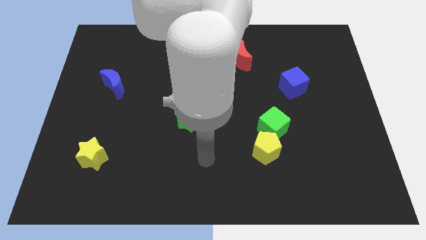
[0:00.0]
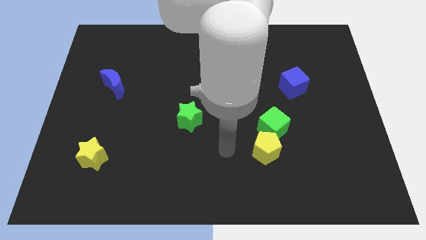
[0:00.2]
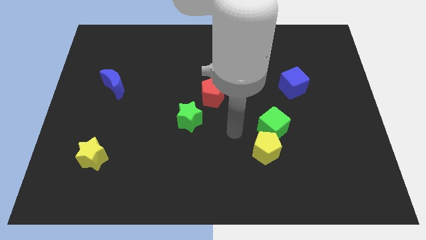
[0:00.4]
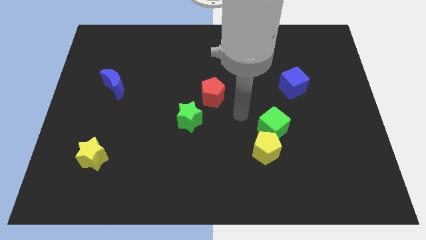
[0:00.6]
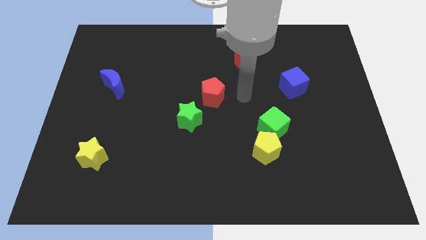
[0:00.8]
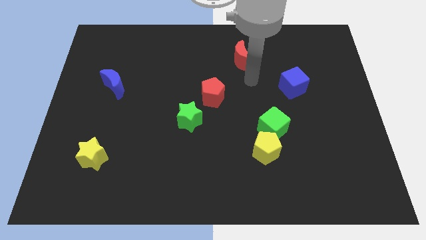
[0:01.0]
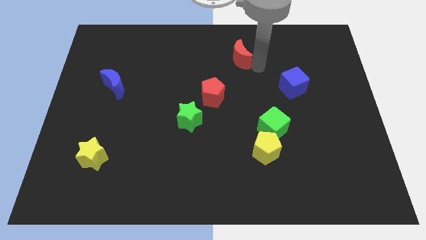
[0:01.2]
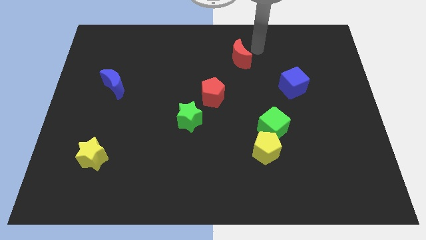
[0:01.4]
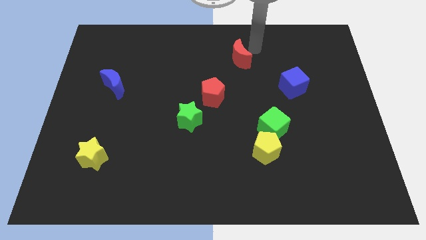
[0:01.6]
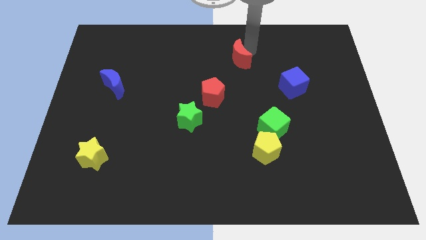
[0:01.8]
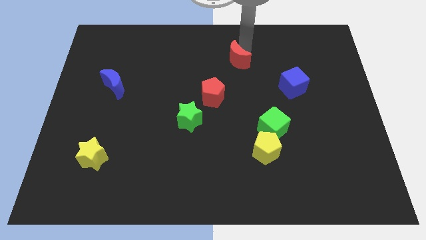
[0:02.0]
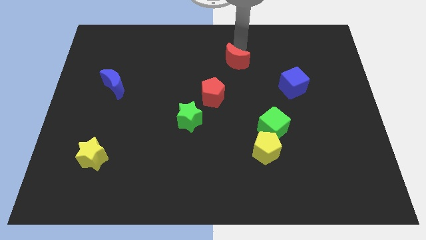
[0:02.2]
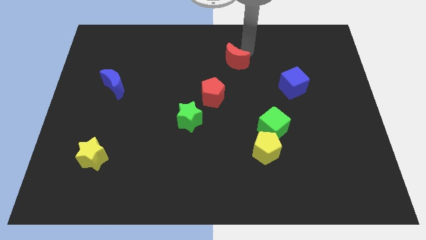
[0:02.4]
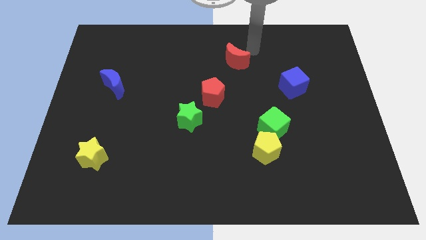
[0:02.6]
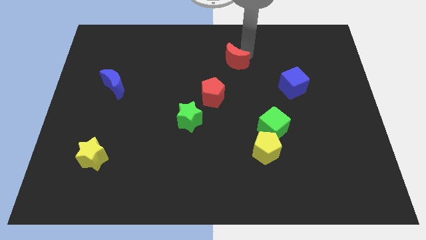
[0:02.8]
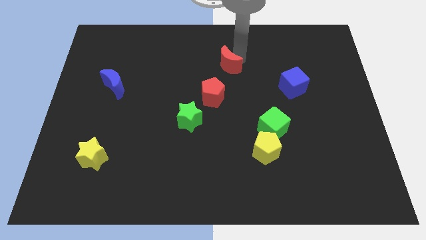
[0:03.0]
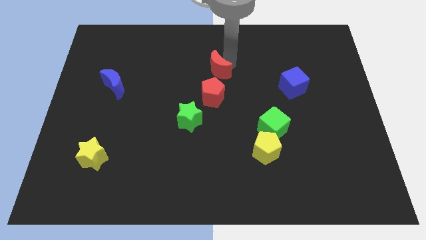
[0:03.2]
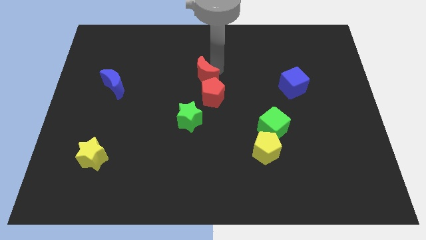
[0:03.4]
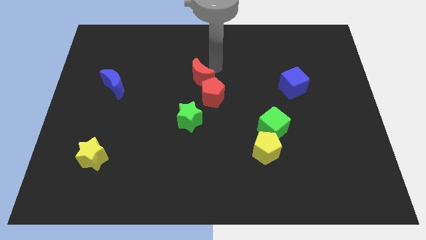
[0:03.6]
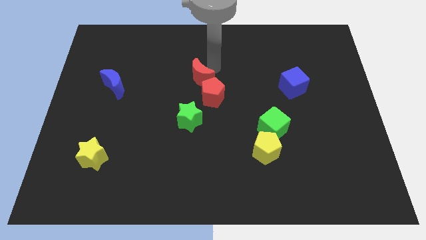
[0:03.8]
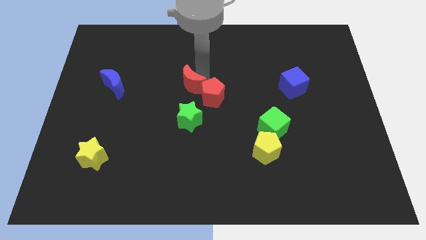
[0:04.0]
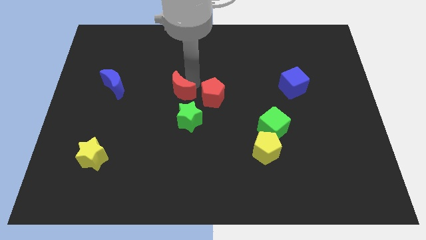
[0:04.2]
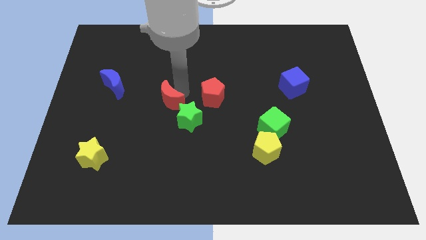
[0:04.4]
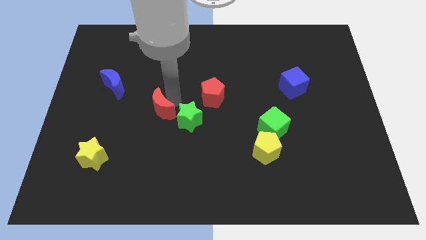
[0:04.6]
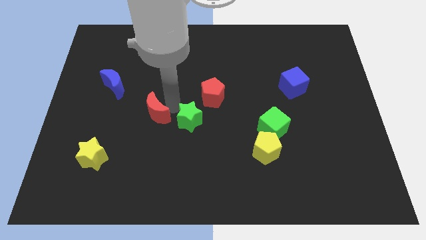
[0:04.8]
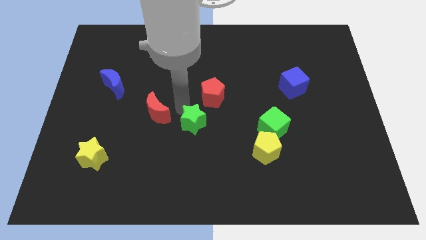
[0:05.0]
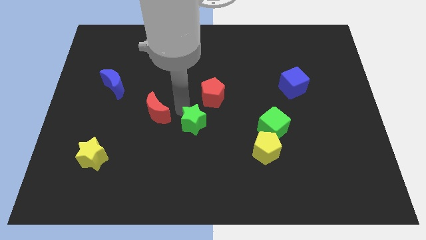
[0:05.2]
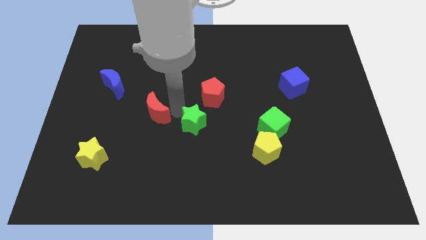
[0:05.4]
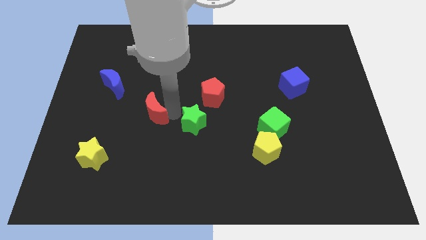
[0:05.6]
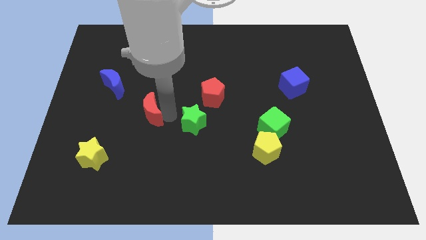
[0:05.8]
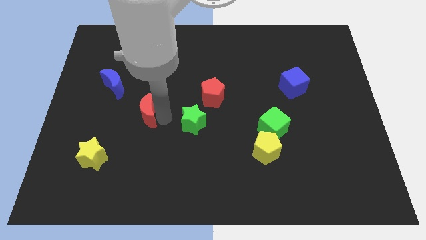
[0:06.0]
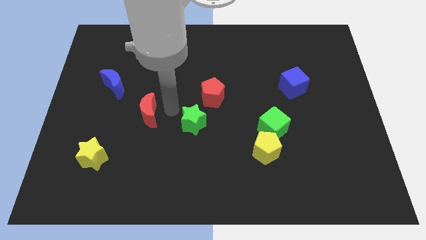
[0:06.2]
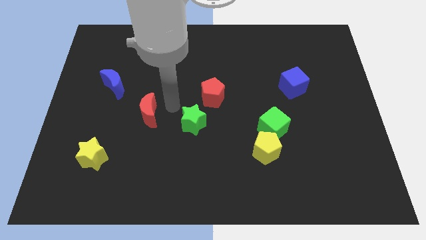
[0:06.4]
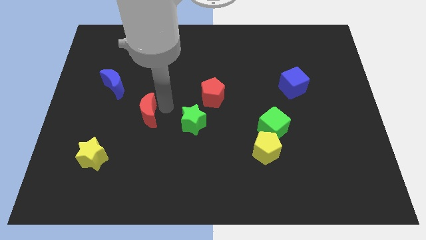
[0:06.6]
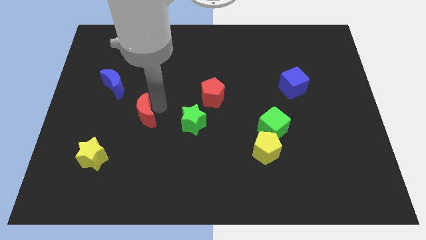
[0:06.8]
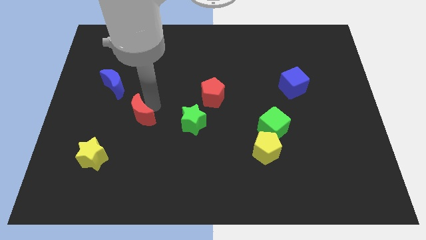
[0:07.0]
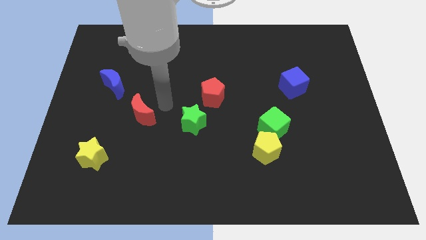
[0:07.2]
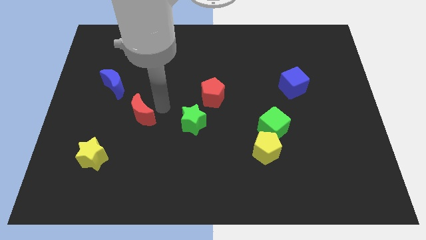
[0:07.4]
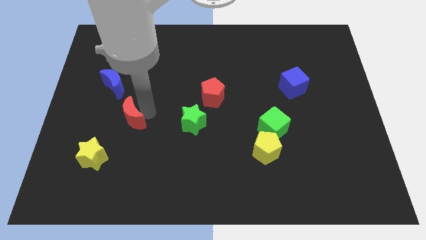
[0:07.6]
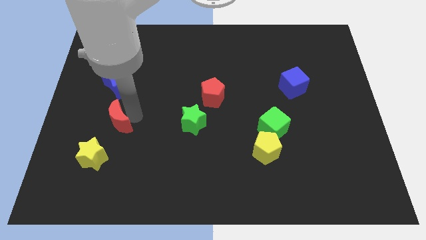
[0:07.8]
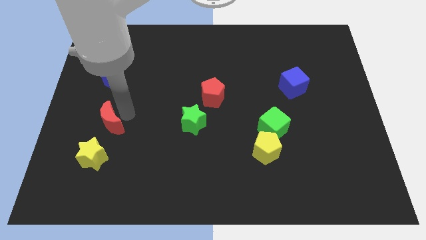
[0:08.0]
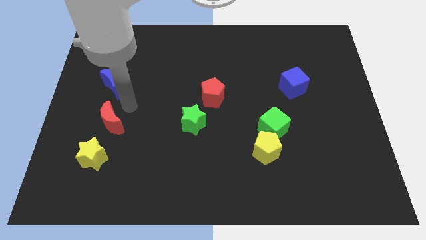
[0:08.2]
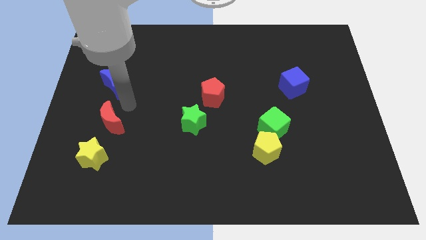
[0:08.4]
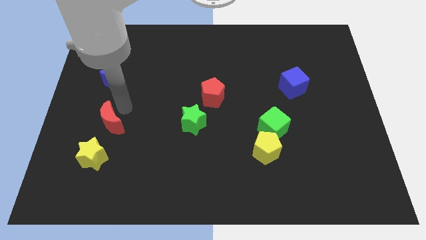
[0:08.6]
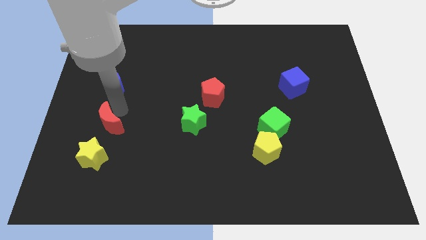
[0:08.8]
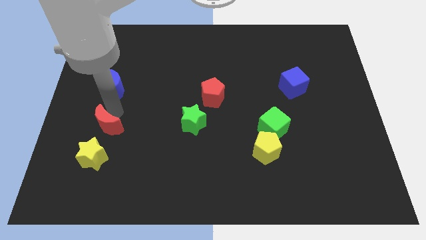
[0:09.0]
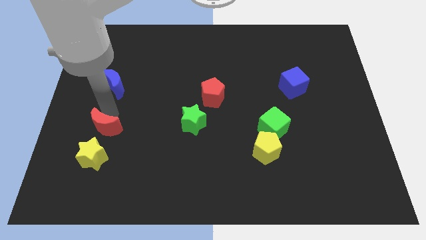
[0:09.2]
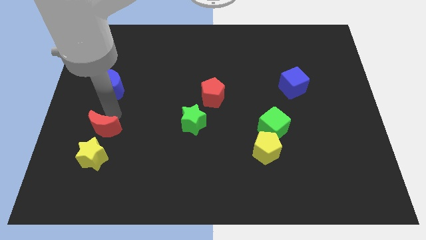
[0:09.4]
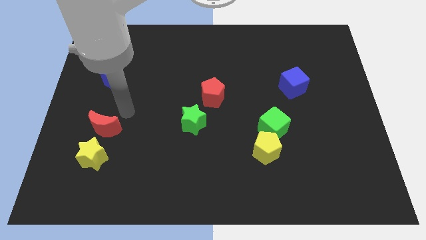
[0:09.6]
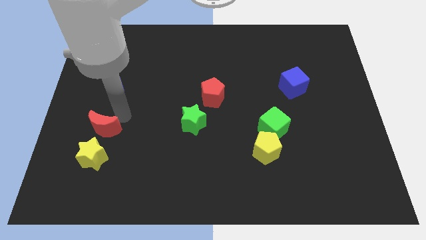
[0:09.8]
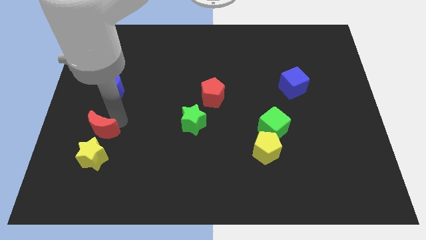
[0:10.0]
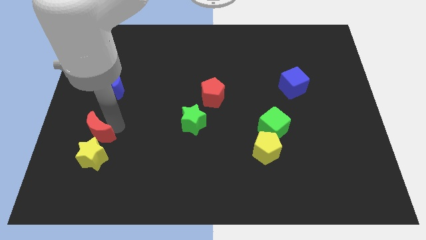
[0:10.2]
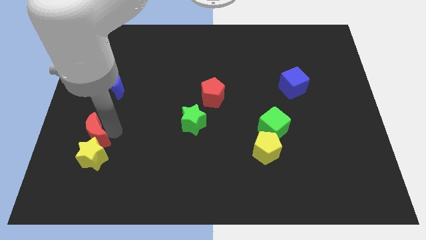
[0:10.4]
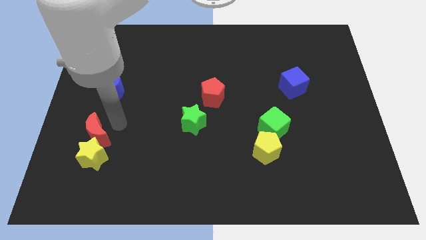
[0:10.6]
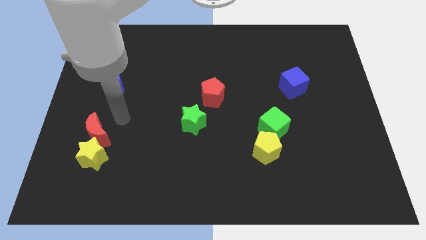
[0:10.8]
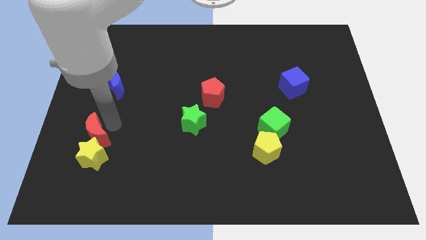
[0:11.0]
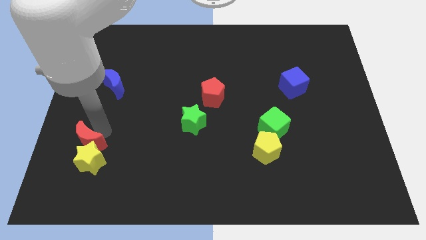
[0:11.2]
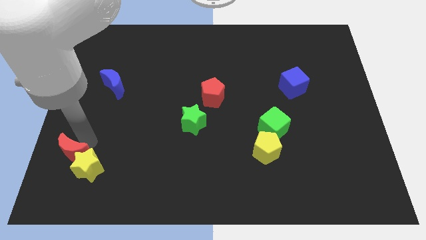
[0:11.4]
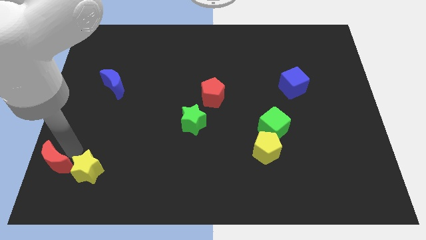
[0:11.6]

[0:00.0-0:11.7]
move the red moon to the lower left corner
